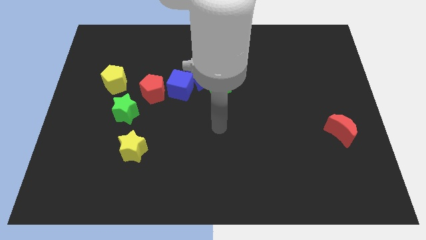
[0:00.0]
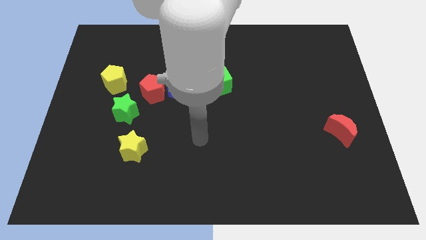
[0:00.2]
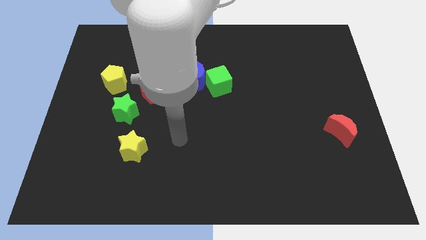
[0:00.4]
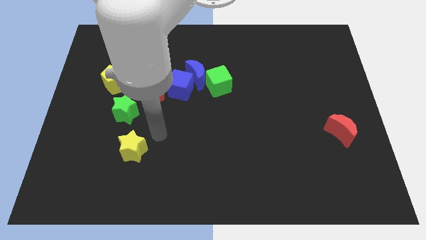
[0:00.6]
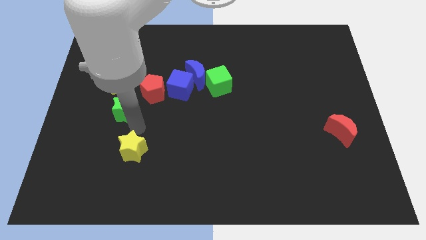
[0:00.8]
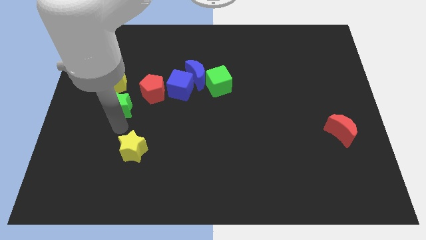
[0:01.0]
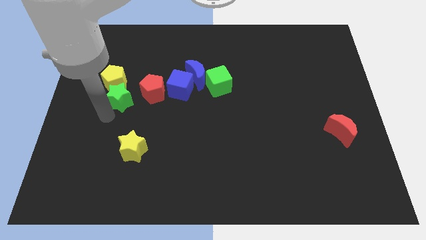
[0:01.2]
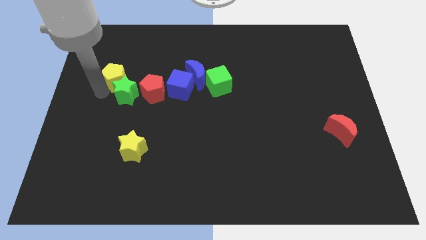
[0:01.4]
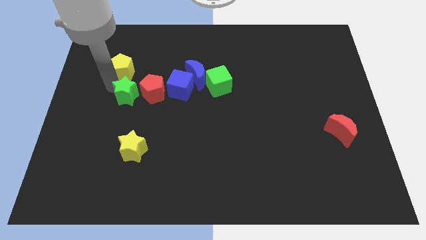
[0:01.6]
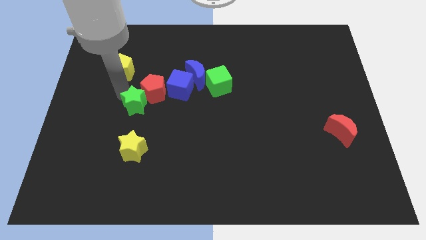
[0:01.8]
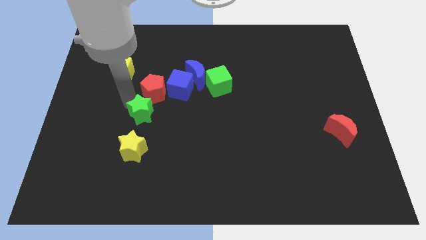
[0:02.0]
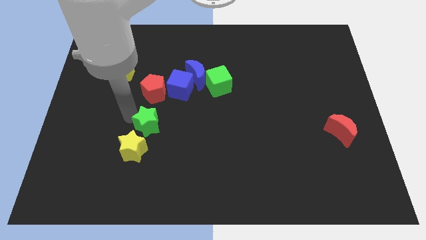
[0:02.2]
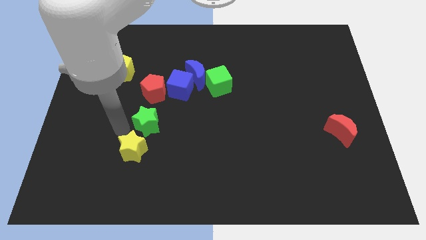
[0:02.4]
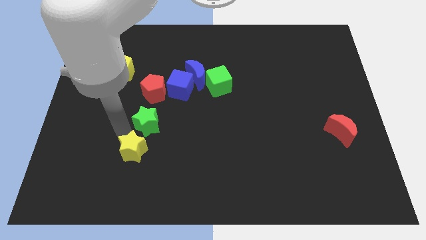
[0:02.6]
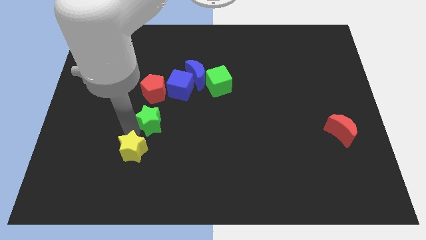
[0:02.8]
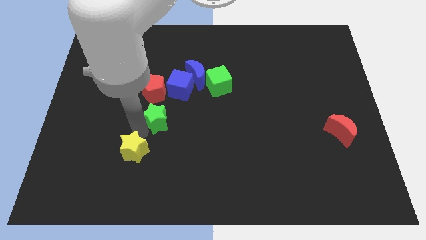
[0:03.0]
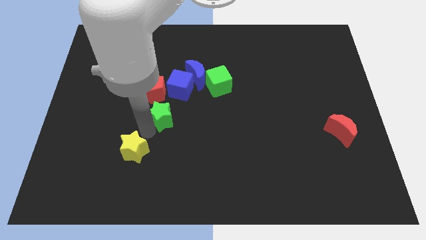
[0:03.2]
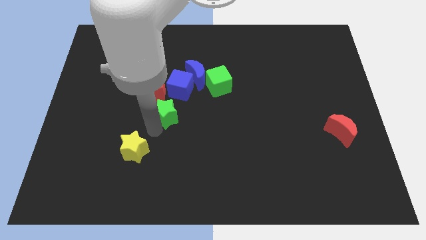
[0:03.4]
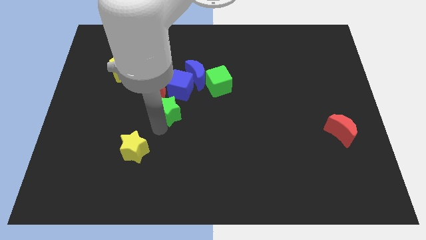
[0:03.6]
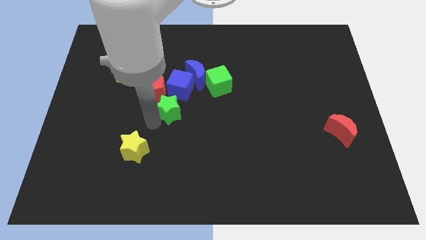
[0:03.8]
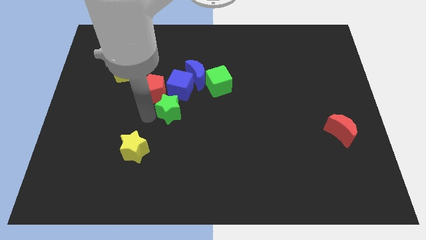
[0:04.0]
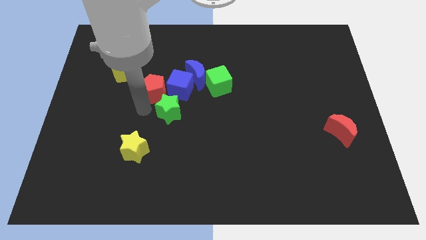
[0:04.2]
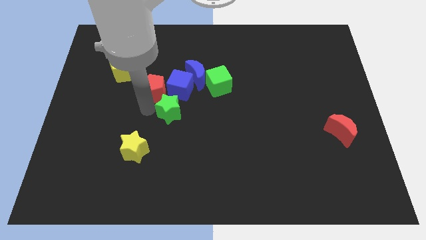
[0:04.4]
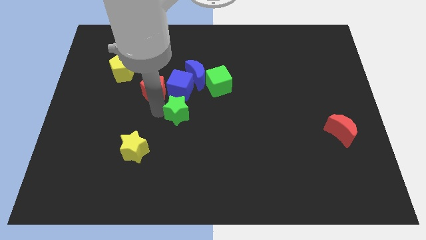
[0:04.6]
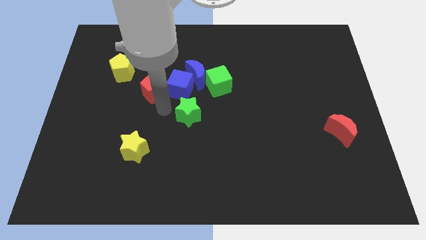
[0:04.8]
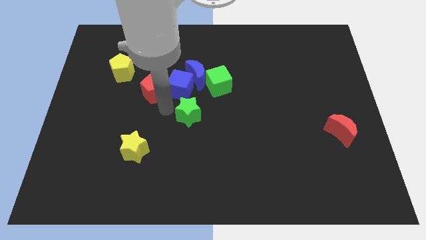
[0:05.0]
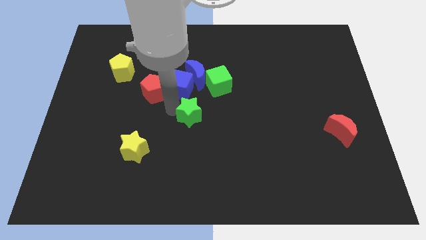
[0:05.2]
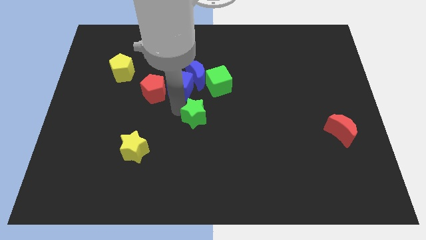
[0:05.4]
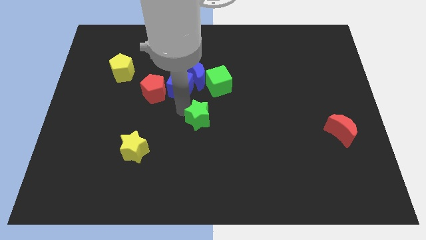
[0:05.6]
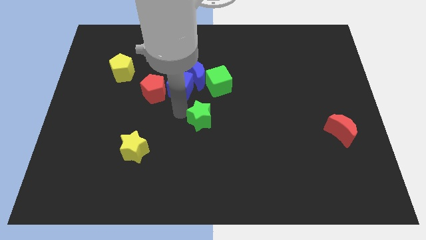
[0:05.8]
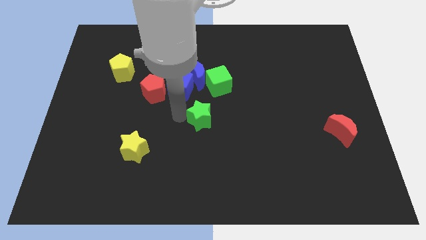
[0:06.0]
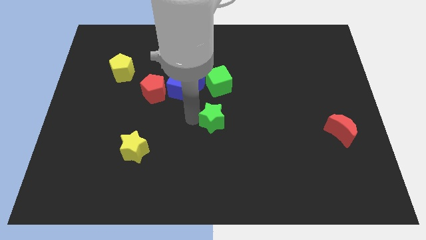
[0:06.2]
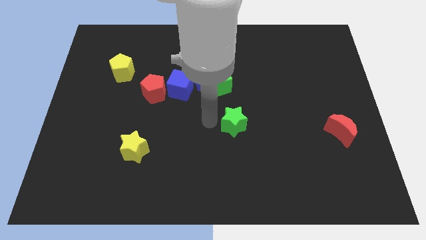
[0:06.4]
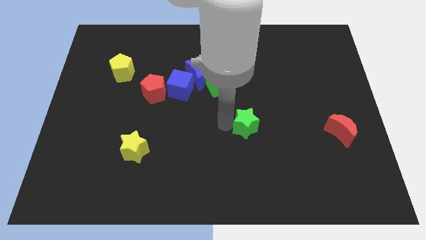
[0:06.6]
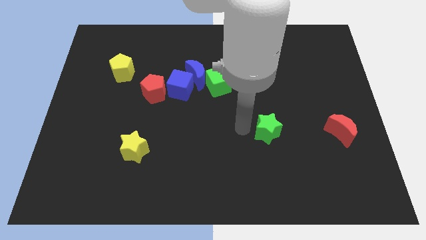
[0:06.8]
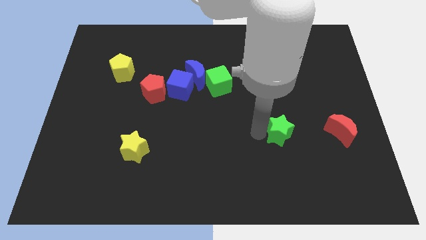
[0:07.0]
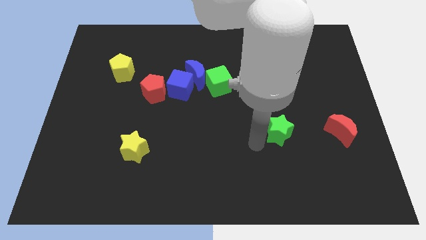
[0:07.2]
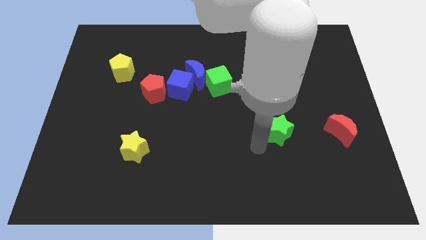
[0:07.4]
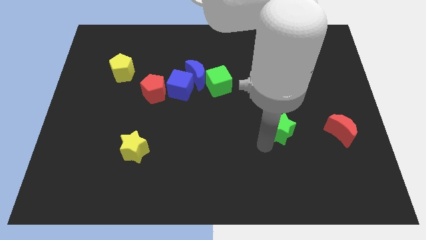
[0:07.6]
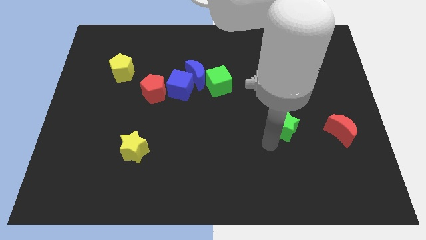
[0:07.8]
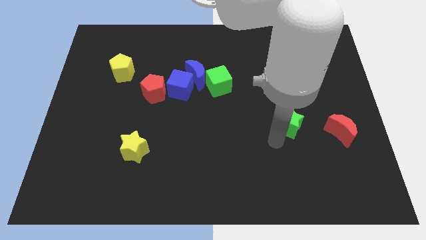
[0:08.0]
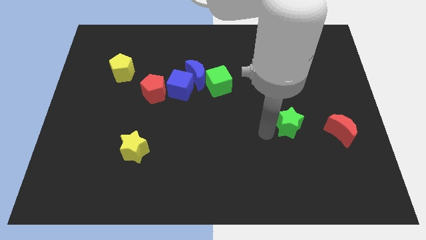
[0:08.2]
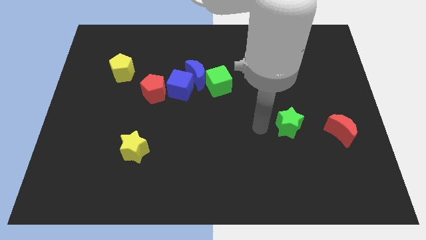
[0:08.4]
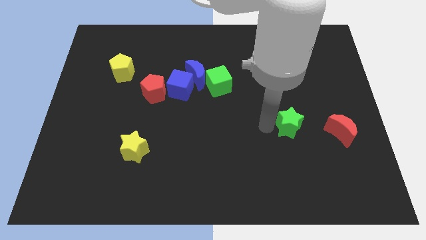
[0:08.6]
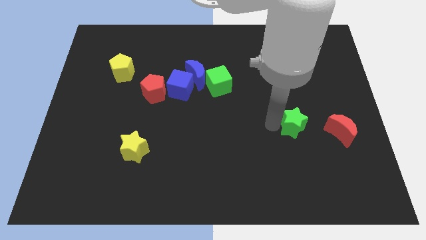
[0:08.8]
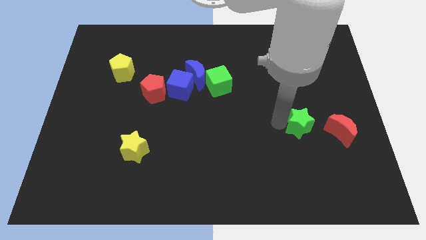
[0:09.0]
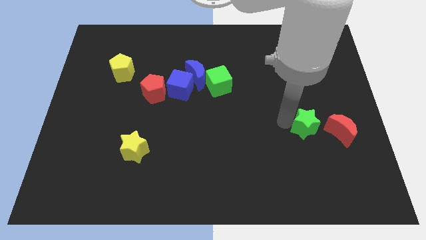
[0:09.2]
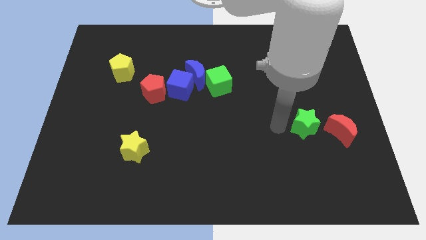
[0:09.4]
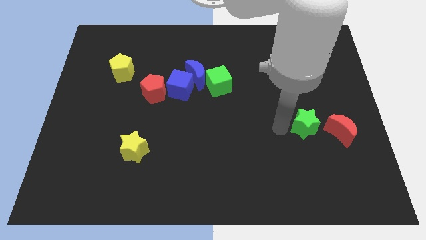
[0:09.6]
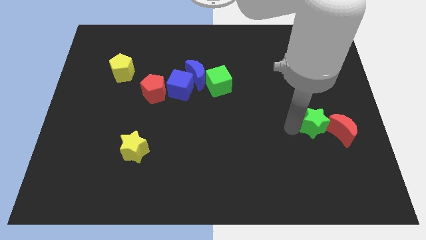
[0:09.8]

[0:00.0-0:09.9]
slide the green star towards the red moon

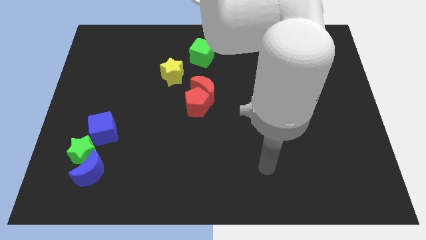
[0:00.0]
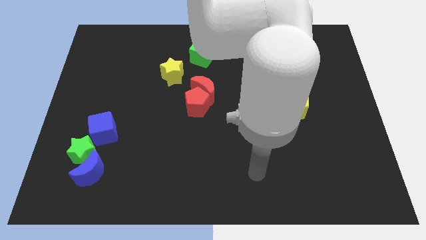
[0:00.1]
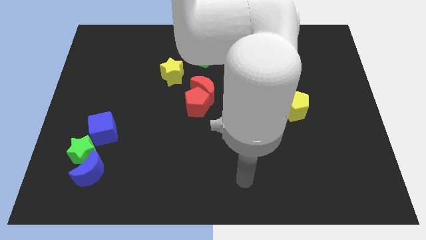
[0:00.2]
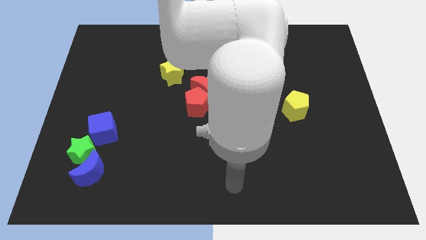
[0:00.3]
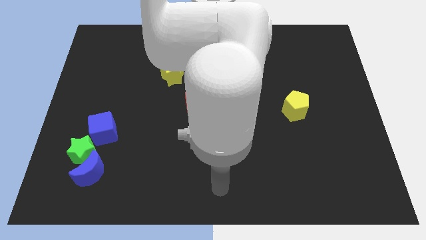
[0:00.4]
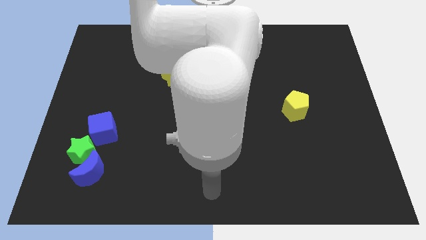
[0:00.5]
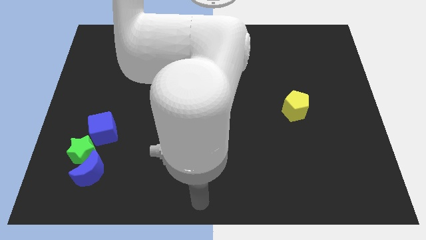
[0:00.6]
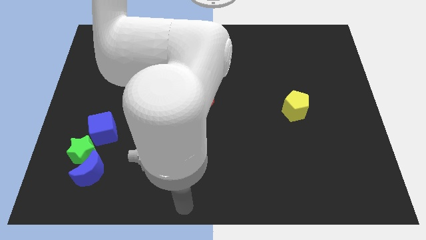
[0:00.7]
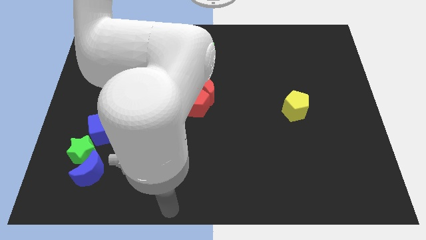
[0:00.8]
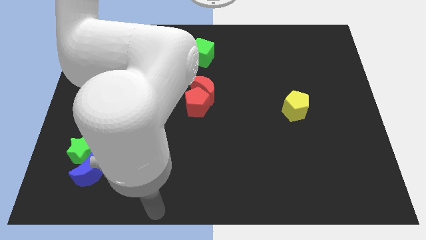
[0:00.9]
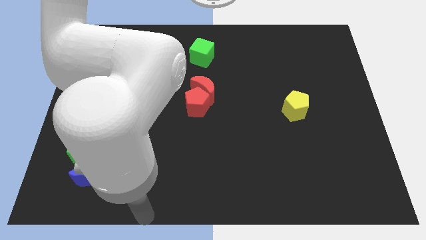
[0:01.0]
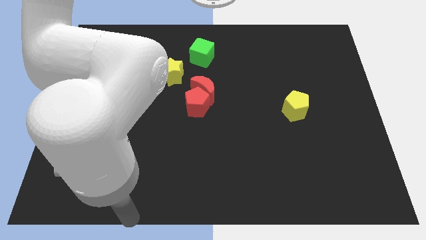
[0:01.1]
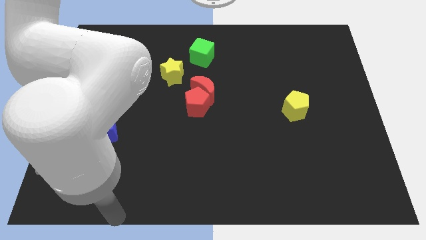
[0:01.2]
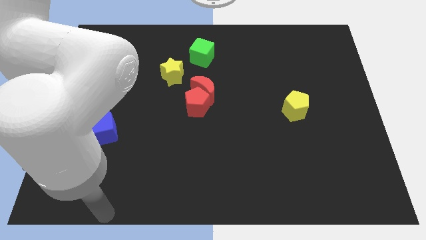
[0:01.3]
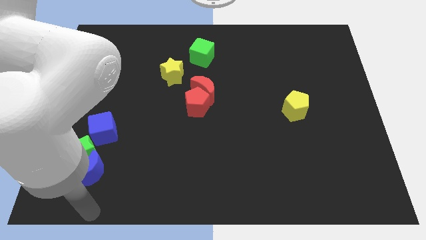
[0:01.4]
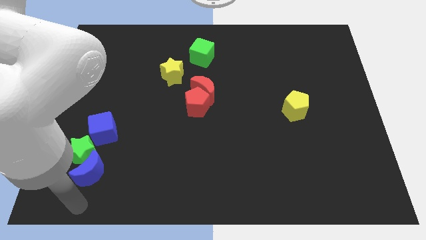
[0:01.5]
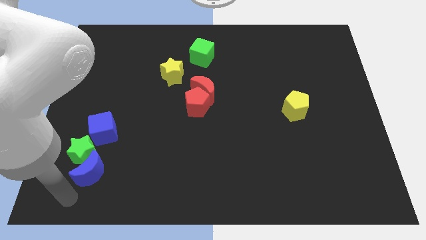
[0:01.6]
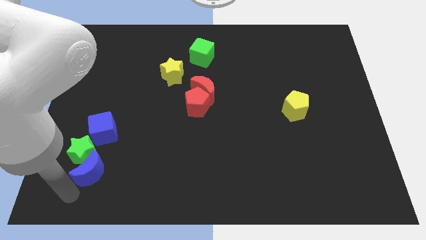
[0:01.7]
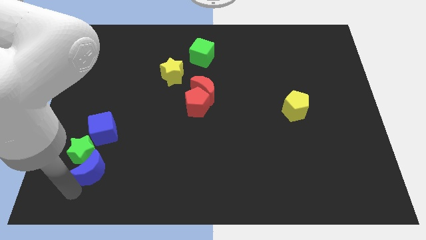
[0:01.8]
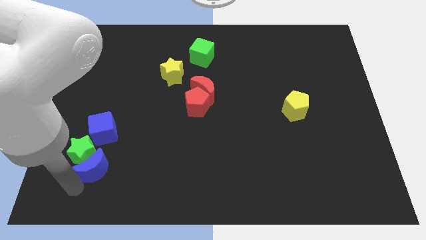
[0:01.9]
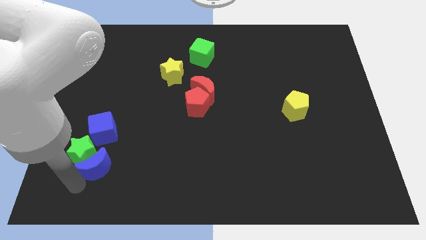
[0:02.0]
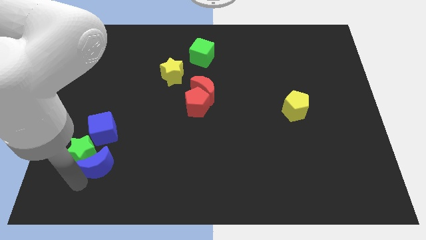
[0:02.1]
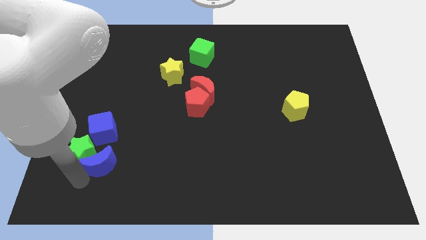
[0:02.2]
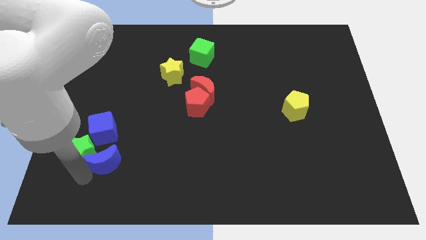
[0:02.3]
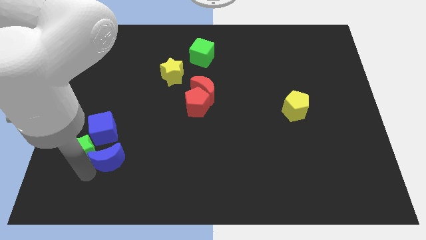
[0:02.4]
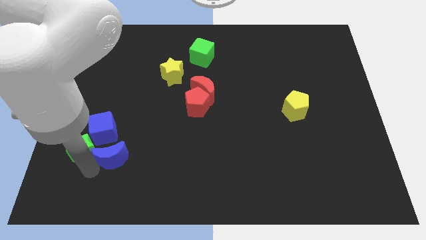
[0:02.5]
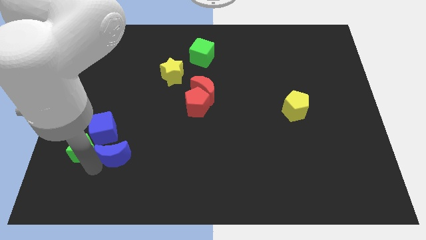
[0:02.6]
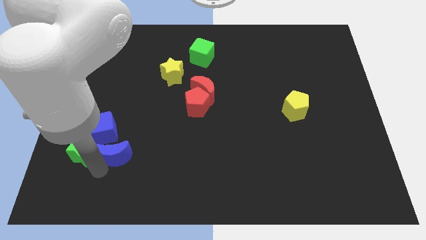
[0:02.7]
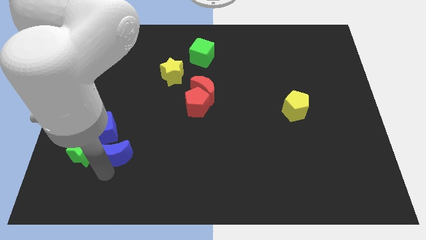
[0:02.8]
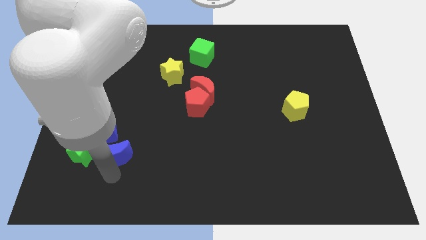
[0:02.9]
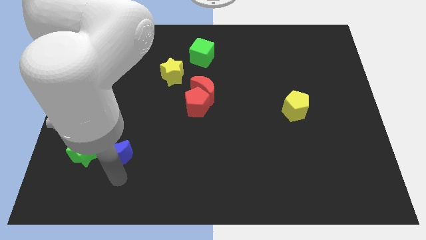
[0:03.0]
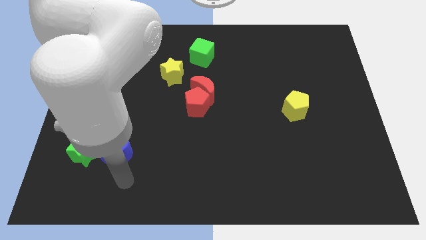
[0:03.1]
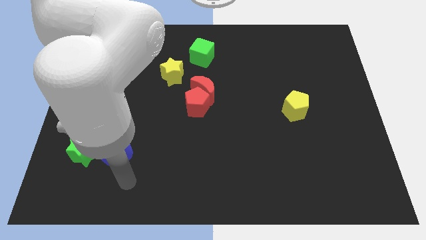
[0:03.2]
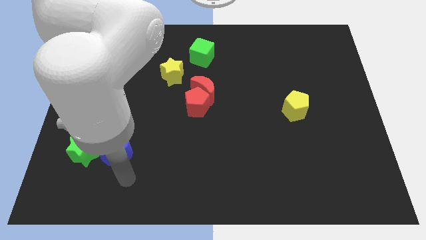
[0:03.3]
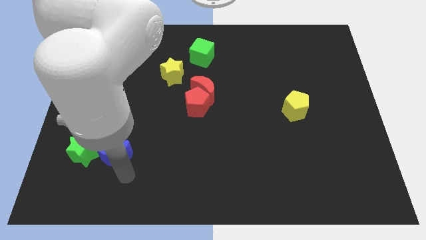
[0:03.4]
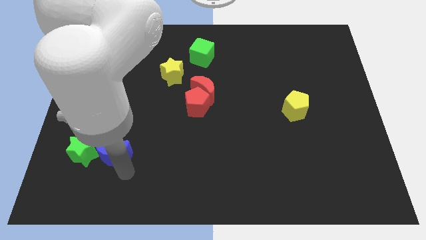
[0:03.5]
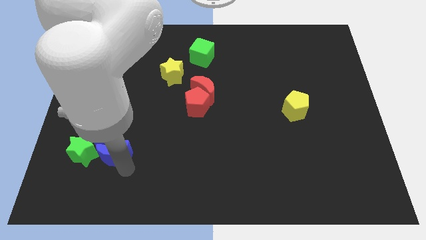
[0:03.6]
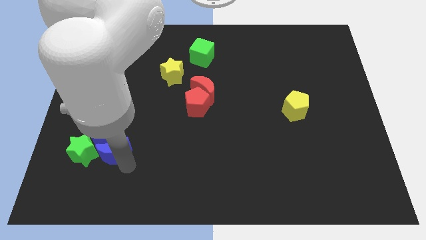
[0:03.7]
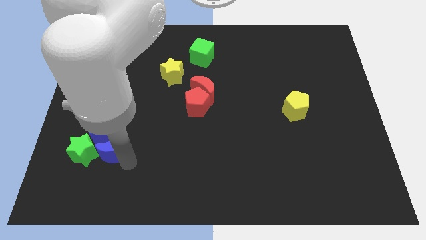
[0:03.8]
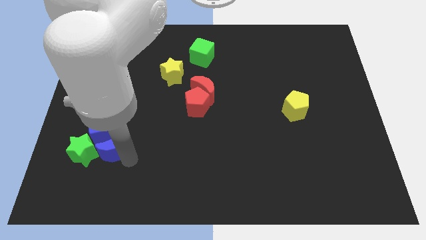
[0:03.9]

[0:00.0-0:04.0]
slide the blue moon to the blue cube
